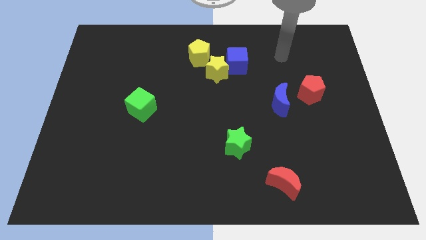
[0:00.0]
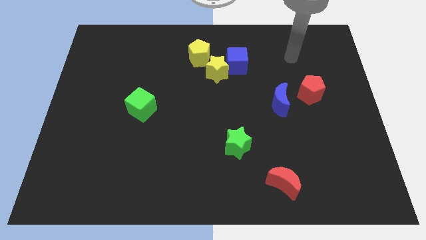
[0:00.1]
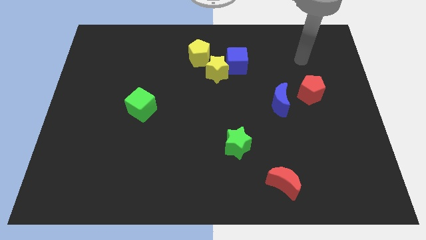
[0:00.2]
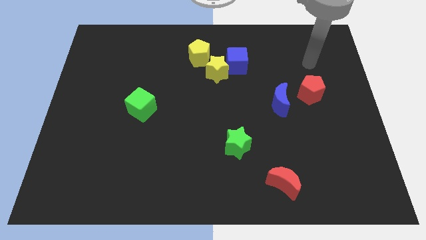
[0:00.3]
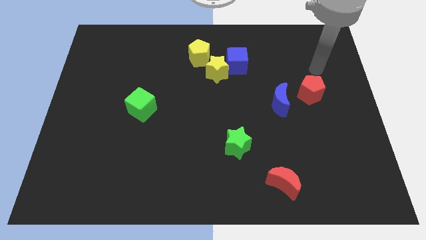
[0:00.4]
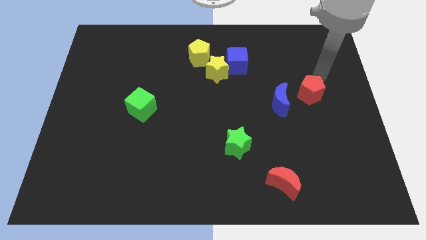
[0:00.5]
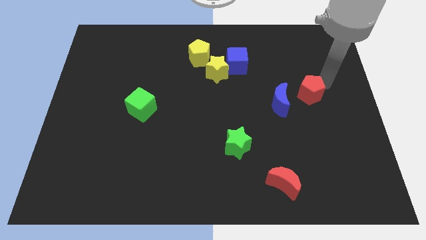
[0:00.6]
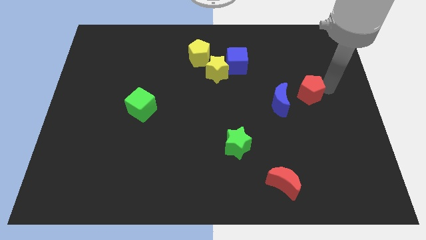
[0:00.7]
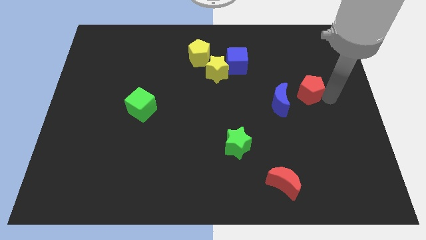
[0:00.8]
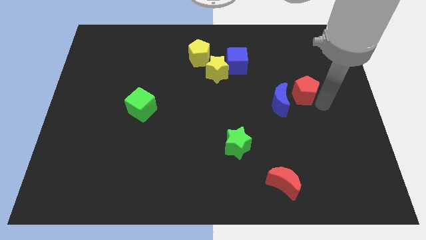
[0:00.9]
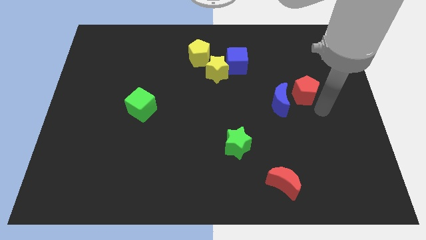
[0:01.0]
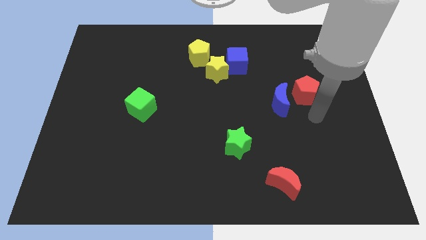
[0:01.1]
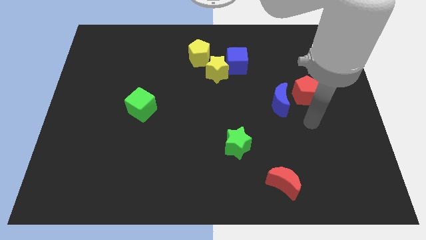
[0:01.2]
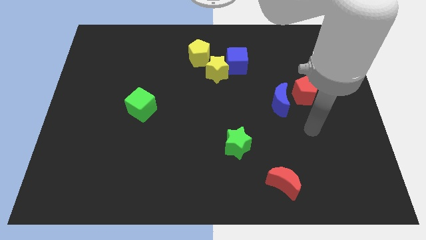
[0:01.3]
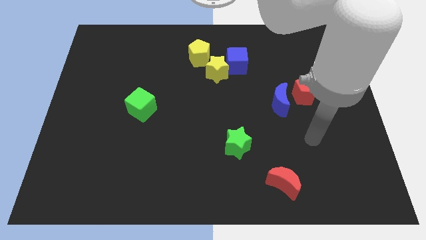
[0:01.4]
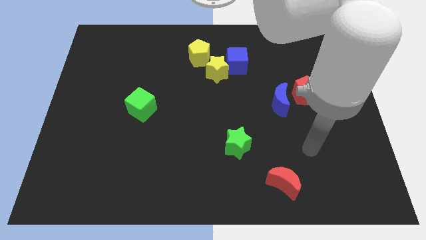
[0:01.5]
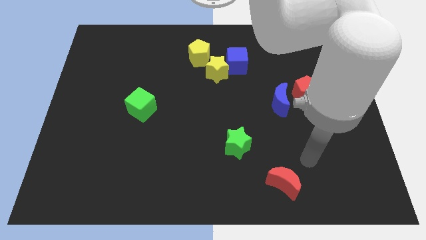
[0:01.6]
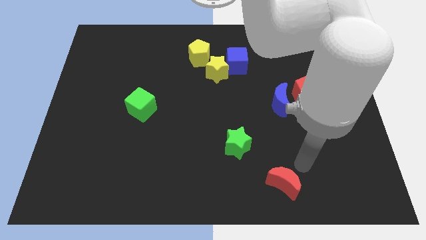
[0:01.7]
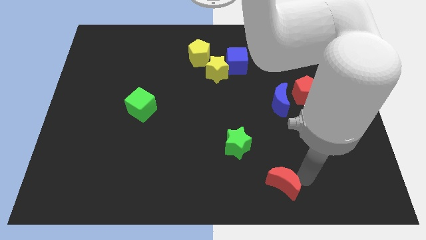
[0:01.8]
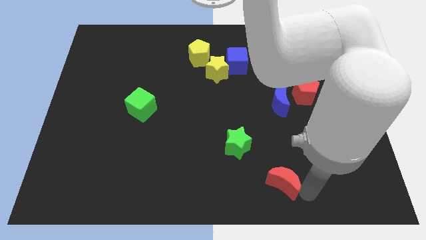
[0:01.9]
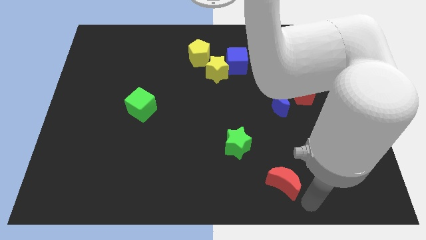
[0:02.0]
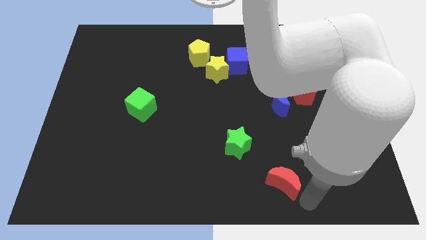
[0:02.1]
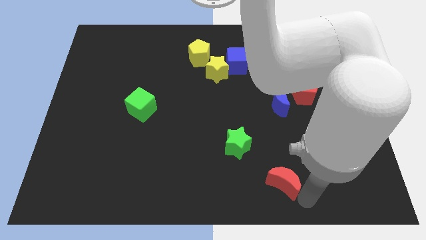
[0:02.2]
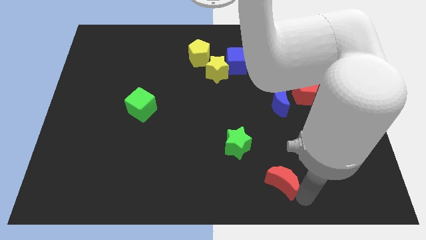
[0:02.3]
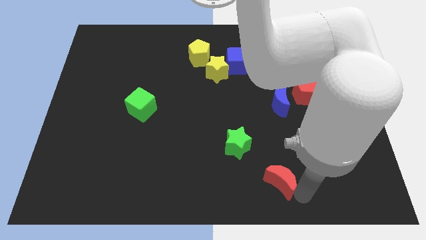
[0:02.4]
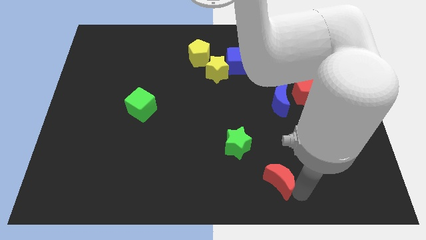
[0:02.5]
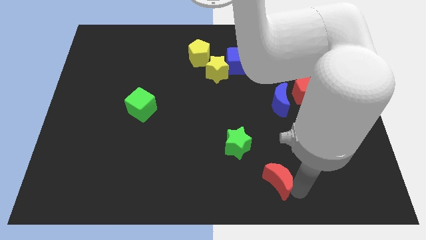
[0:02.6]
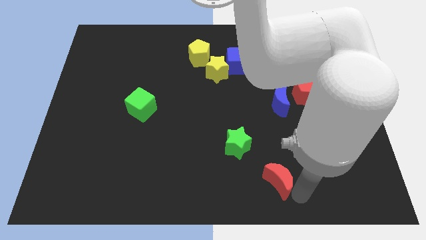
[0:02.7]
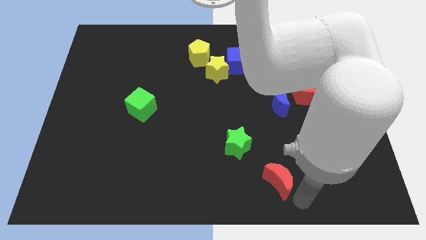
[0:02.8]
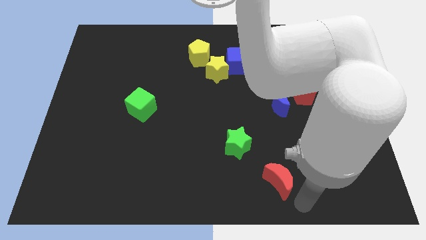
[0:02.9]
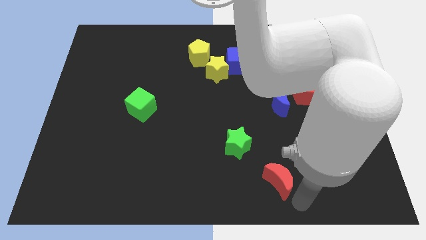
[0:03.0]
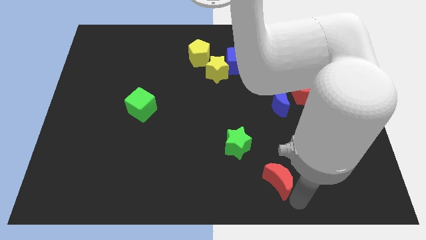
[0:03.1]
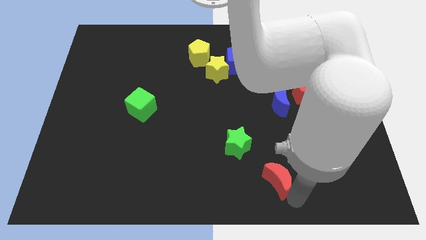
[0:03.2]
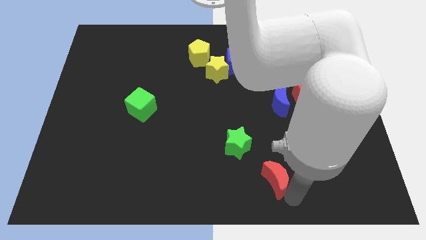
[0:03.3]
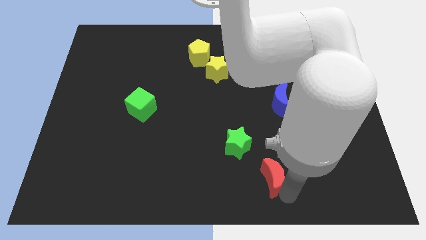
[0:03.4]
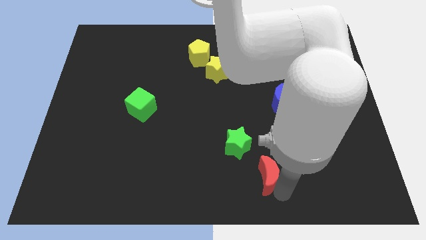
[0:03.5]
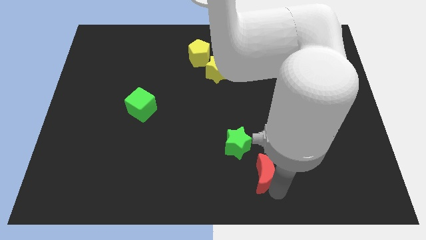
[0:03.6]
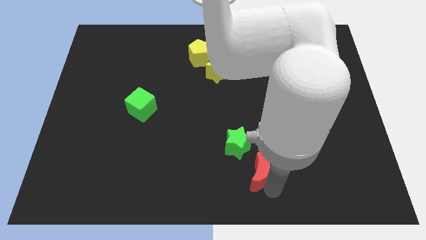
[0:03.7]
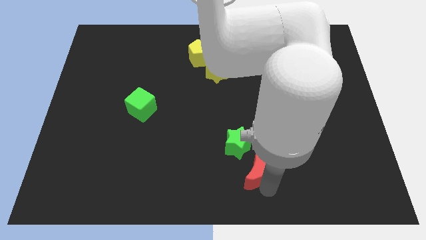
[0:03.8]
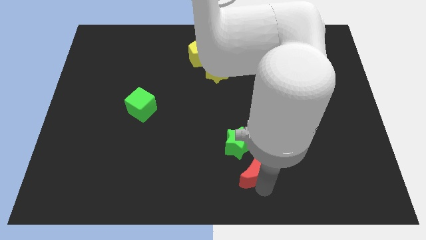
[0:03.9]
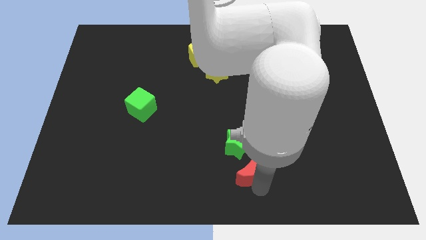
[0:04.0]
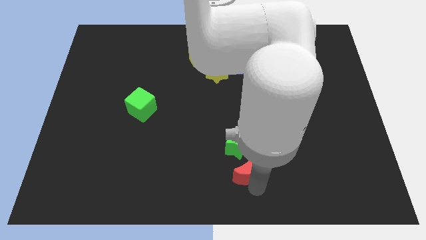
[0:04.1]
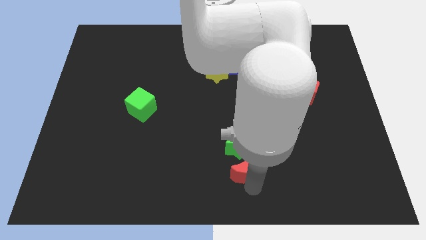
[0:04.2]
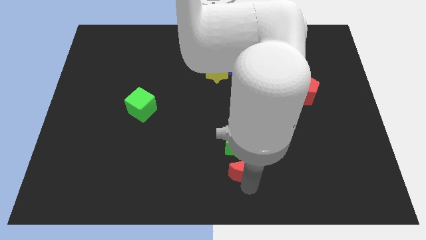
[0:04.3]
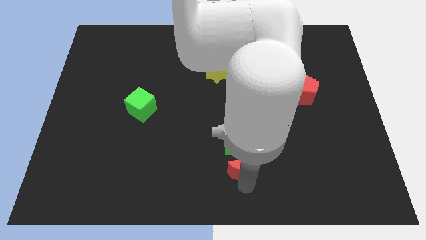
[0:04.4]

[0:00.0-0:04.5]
move the red moon towards the green star

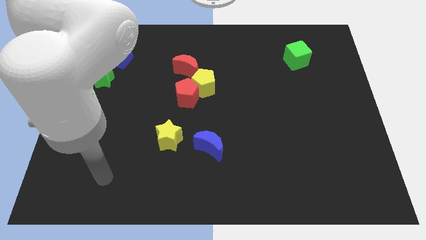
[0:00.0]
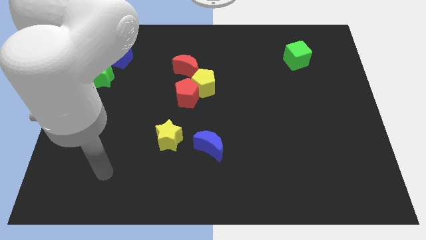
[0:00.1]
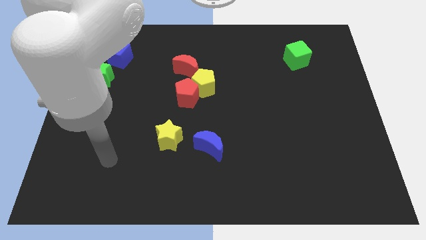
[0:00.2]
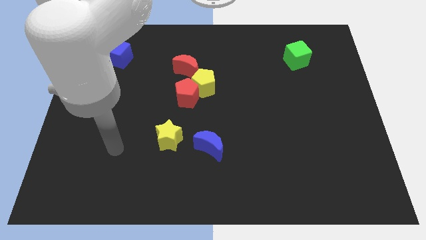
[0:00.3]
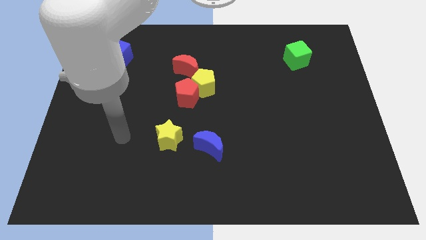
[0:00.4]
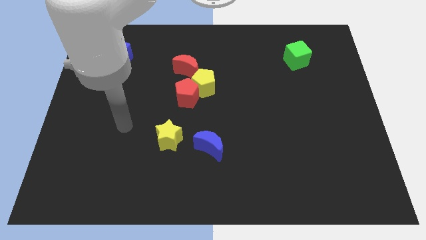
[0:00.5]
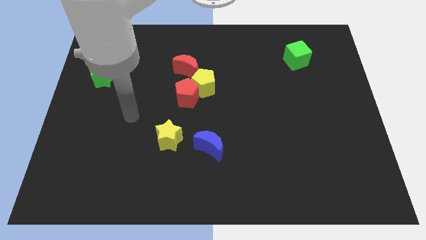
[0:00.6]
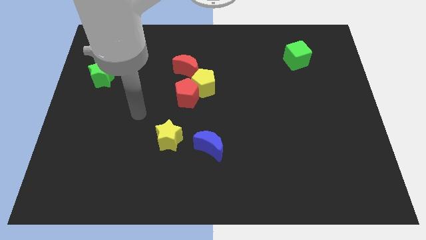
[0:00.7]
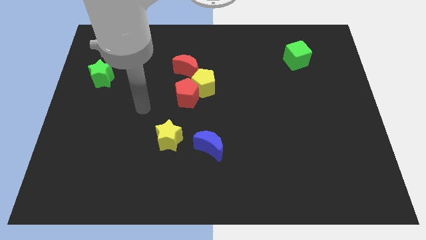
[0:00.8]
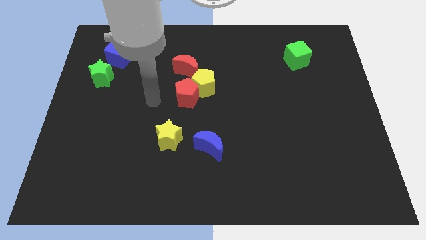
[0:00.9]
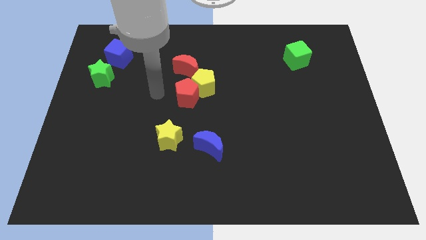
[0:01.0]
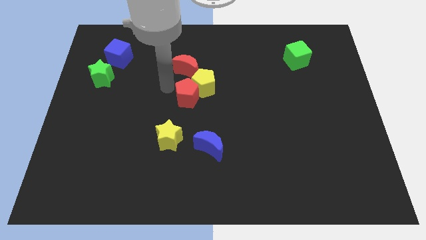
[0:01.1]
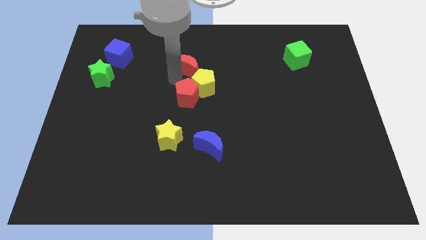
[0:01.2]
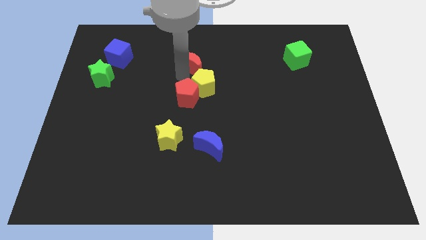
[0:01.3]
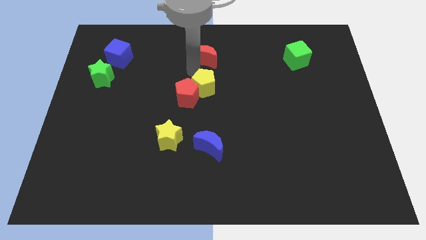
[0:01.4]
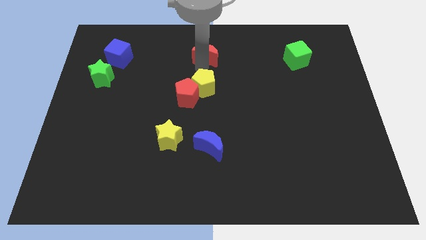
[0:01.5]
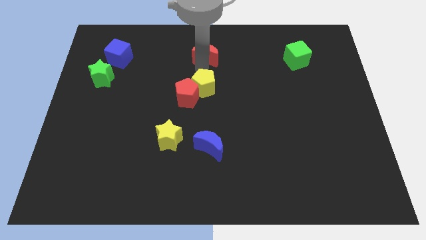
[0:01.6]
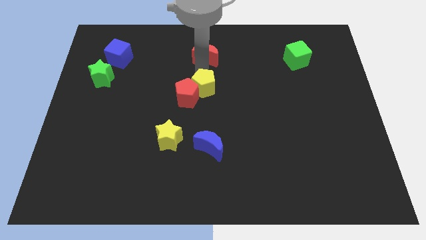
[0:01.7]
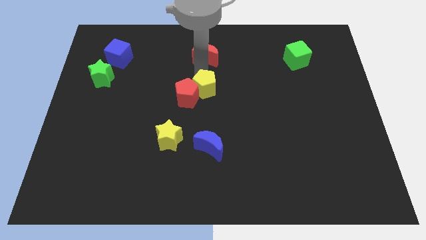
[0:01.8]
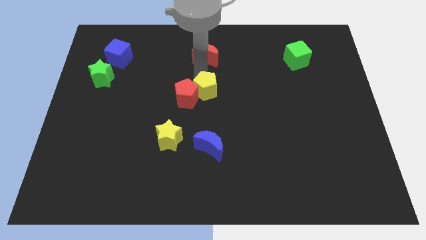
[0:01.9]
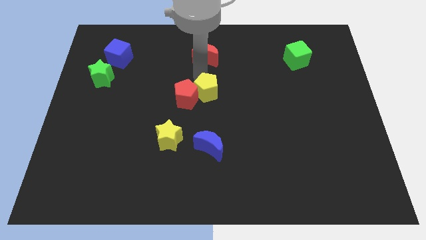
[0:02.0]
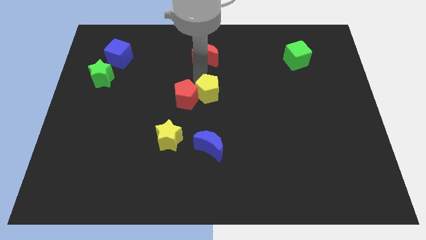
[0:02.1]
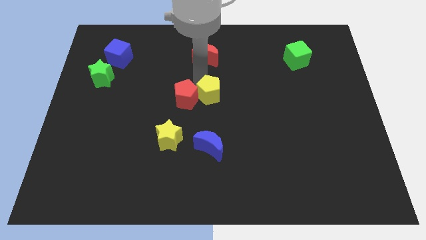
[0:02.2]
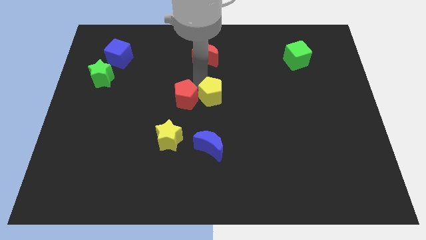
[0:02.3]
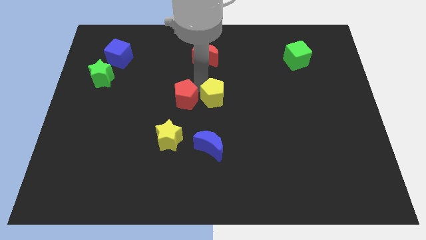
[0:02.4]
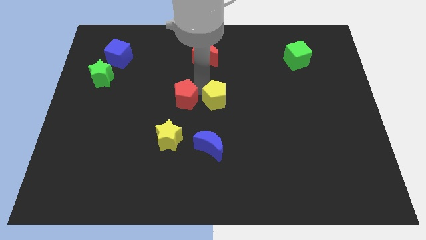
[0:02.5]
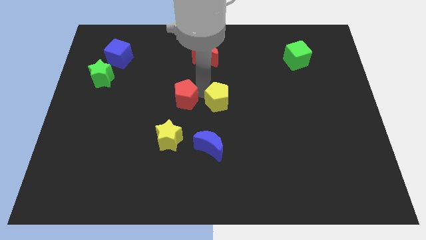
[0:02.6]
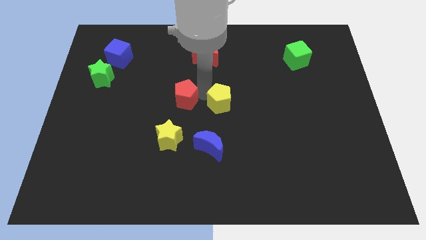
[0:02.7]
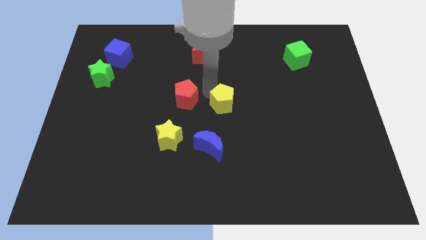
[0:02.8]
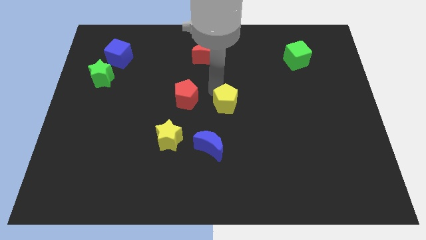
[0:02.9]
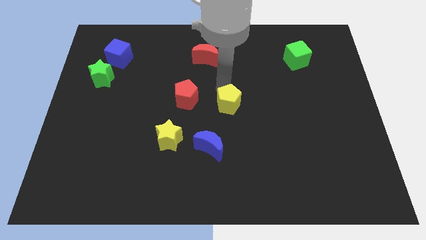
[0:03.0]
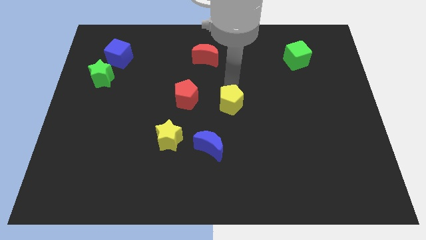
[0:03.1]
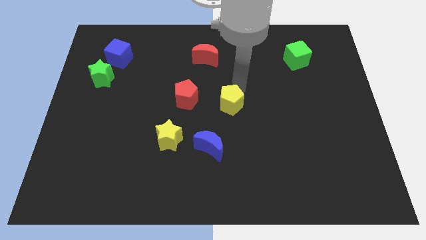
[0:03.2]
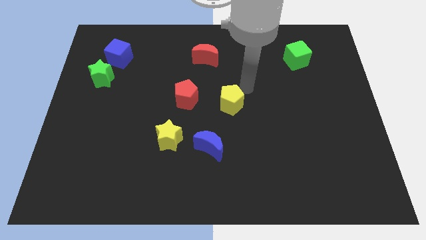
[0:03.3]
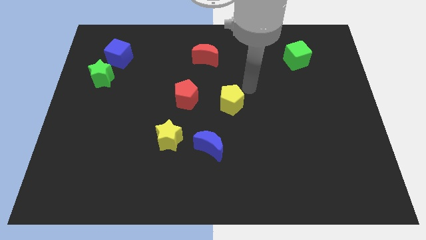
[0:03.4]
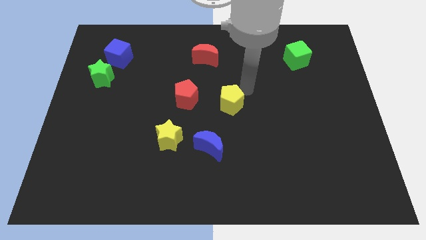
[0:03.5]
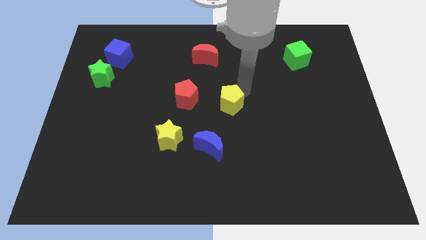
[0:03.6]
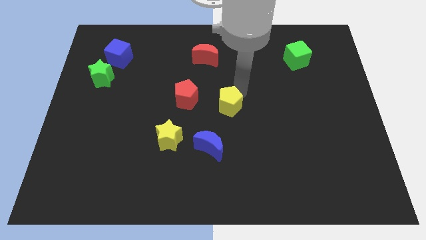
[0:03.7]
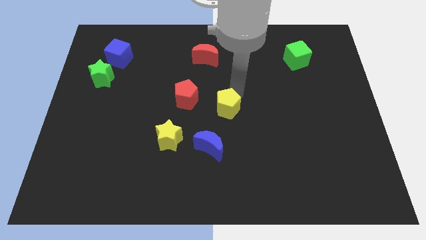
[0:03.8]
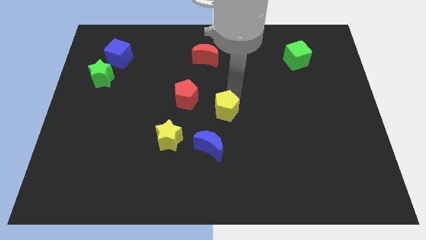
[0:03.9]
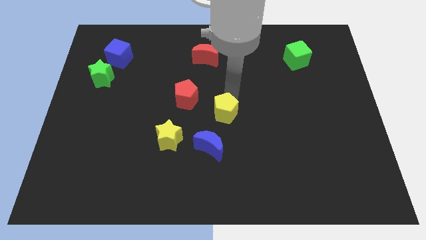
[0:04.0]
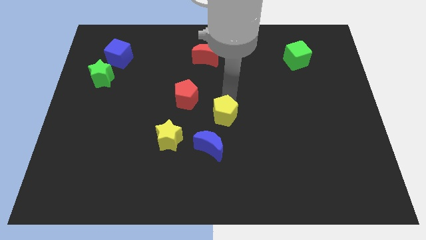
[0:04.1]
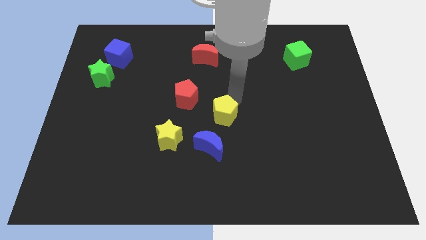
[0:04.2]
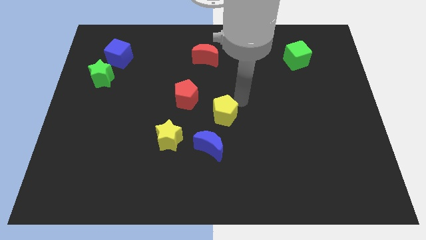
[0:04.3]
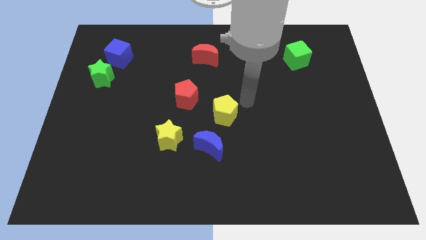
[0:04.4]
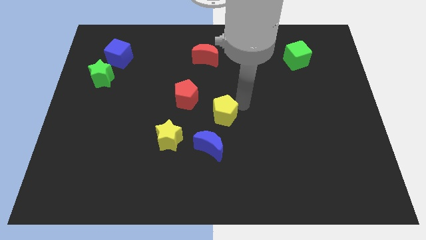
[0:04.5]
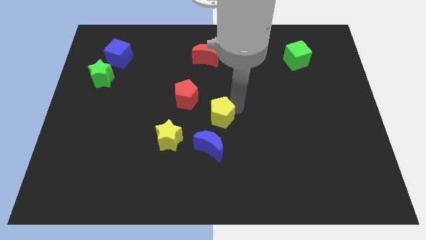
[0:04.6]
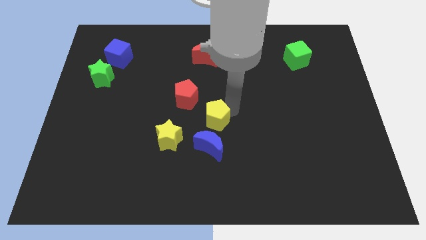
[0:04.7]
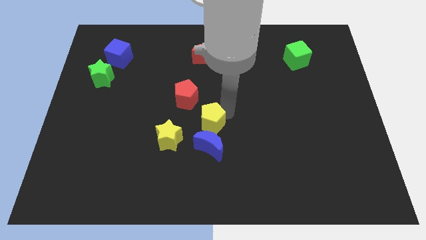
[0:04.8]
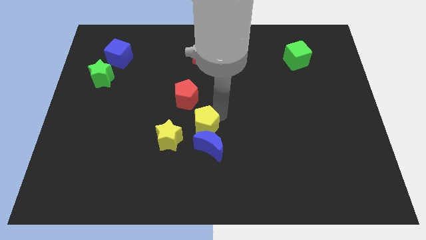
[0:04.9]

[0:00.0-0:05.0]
move the yellow pentagon next to the blue moon
